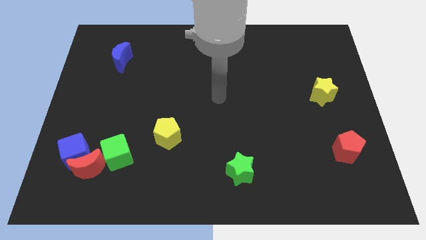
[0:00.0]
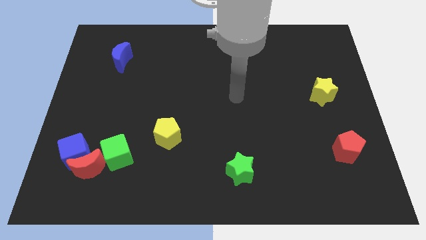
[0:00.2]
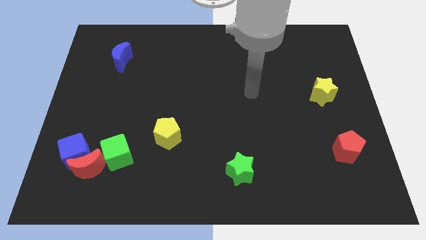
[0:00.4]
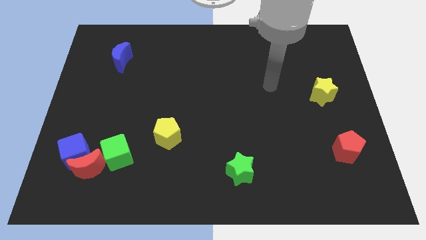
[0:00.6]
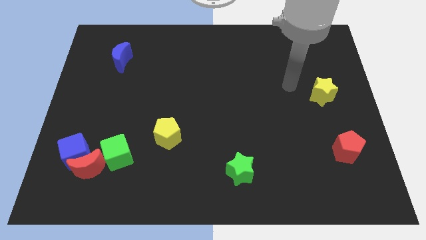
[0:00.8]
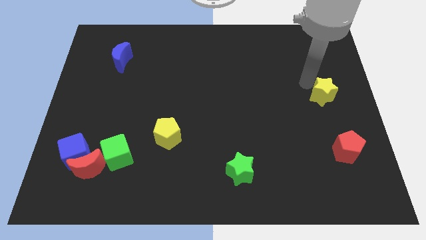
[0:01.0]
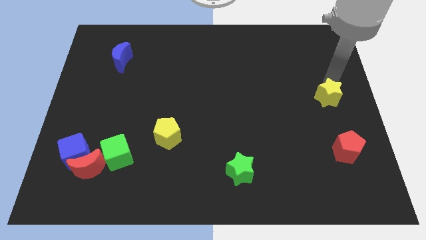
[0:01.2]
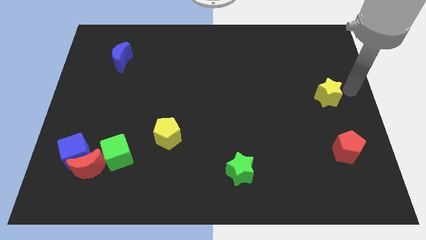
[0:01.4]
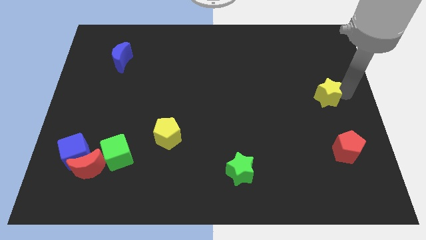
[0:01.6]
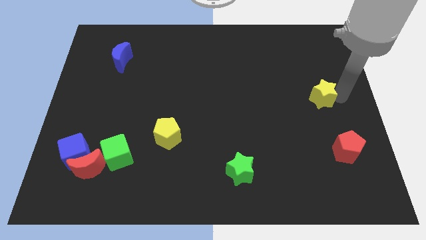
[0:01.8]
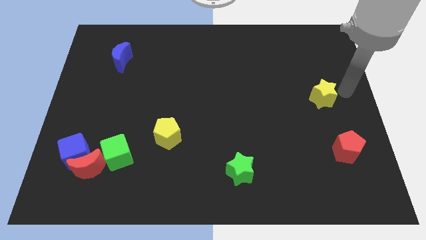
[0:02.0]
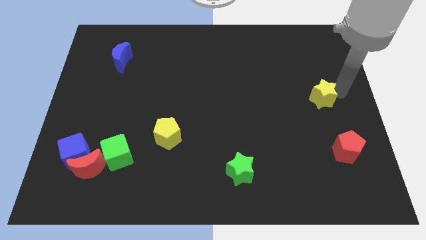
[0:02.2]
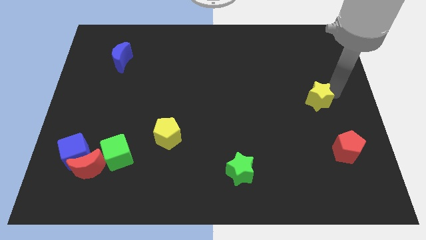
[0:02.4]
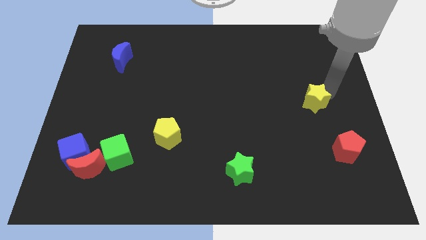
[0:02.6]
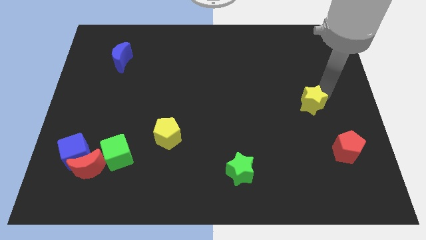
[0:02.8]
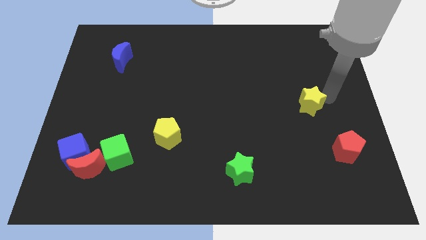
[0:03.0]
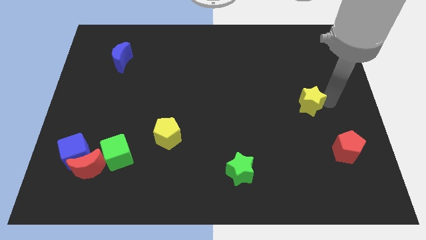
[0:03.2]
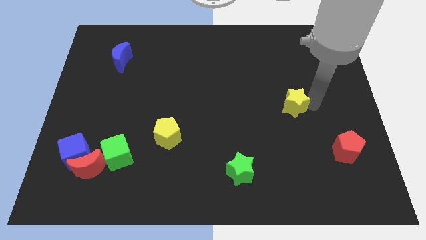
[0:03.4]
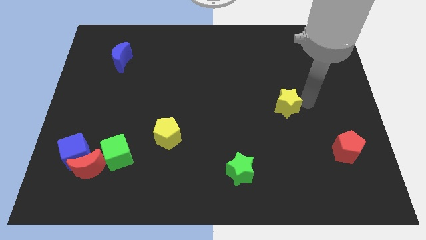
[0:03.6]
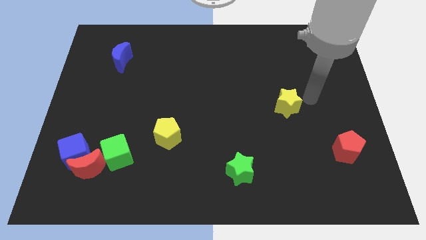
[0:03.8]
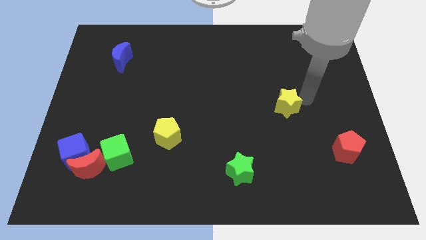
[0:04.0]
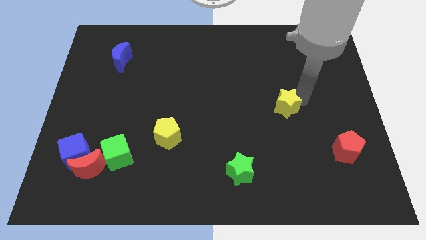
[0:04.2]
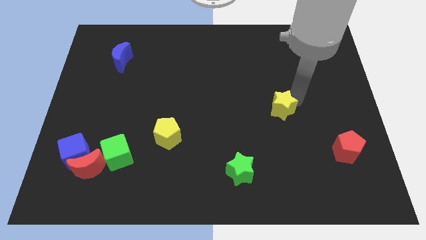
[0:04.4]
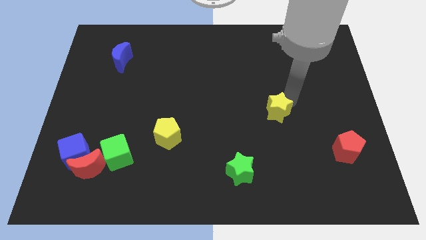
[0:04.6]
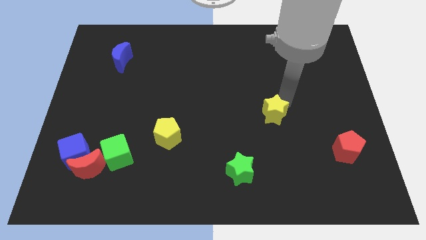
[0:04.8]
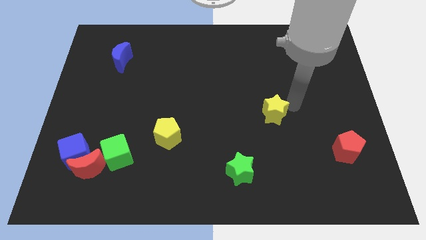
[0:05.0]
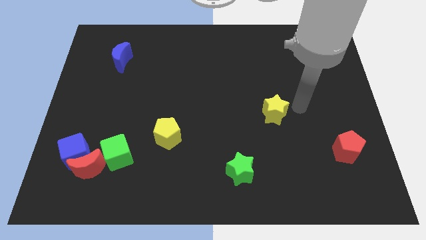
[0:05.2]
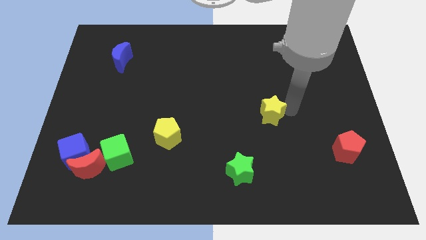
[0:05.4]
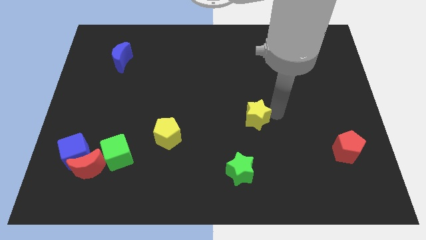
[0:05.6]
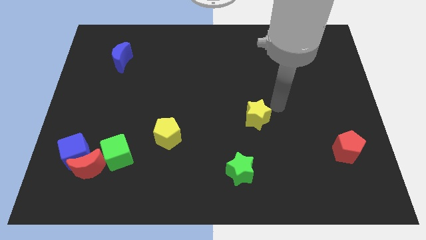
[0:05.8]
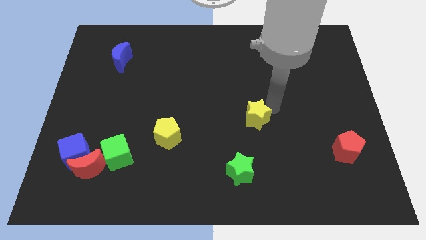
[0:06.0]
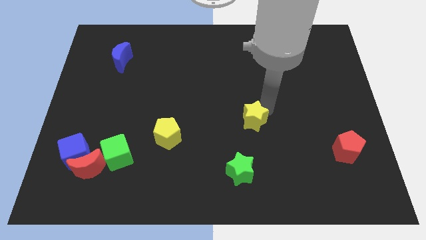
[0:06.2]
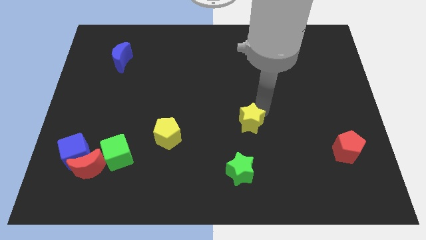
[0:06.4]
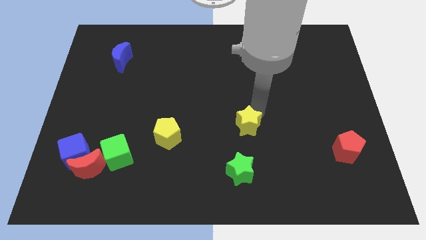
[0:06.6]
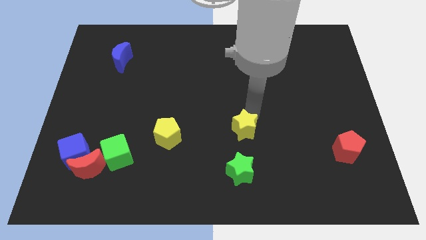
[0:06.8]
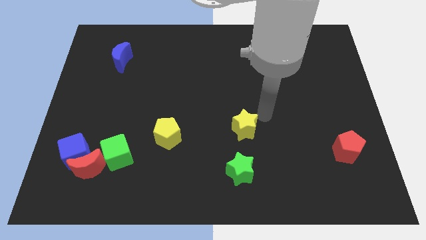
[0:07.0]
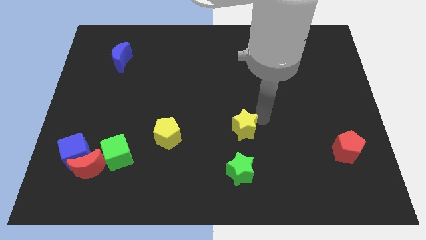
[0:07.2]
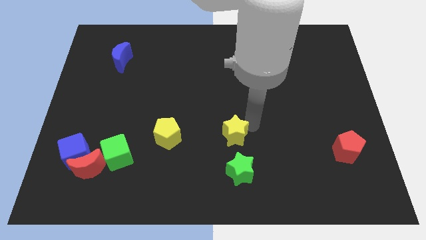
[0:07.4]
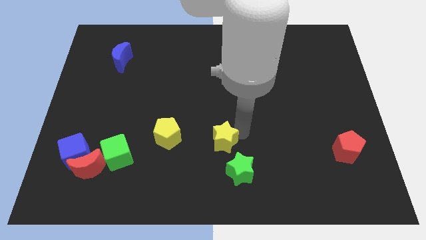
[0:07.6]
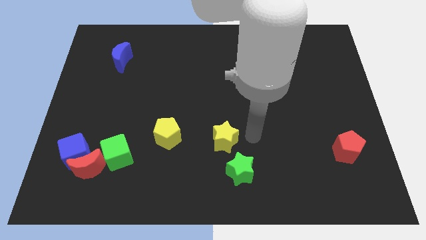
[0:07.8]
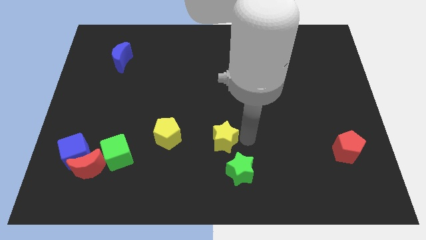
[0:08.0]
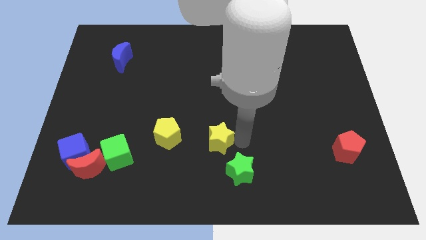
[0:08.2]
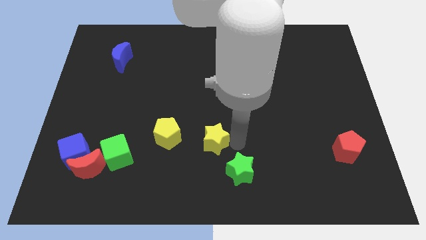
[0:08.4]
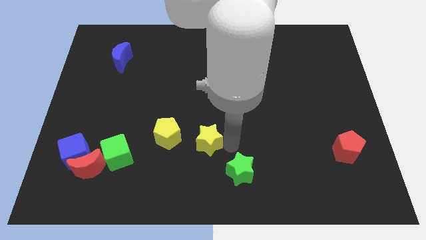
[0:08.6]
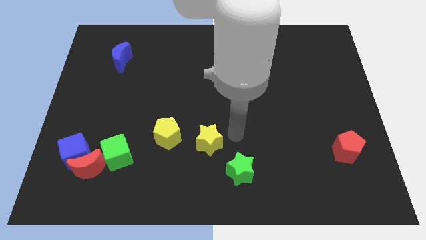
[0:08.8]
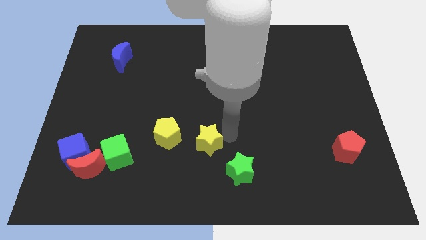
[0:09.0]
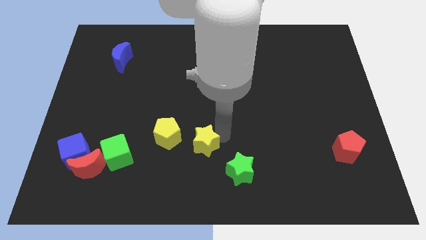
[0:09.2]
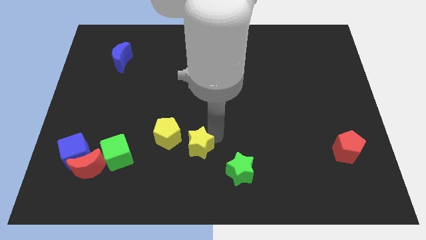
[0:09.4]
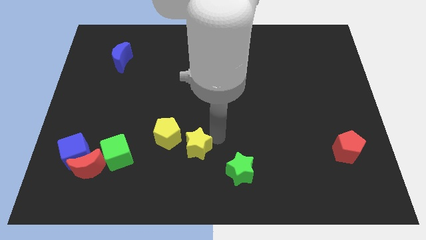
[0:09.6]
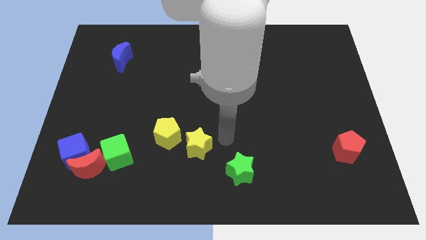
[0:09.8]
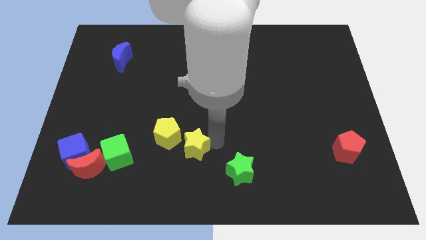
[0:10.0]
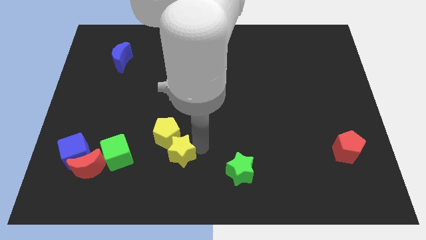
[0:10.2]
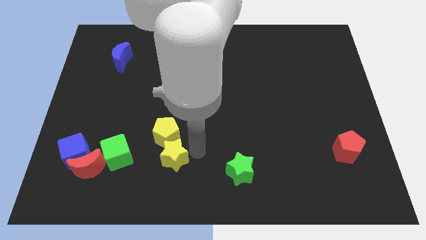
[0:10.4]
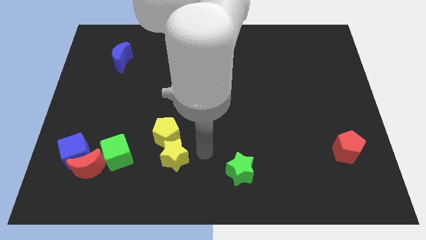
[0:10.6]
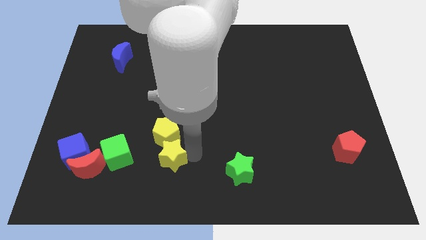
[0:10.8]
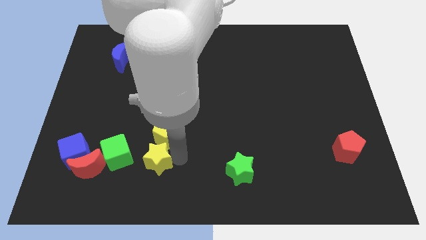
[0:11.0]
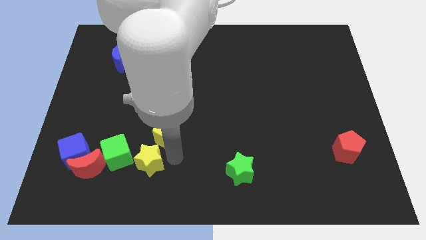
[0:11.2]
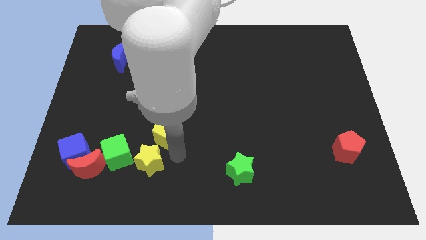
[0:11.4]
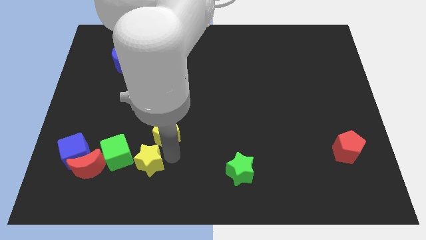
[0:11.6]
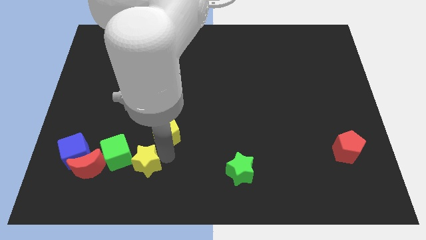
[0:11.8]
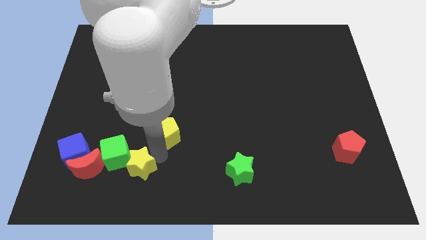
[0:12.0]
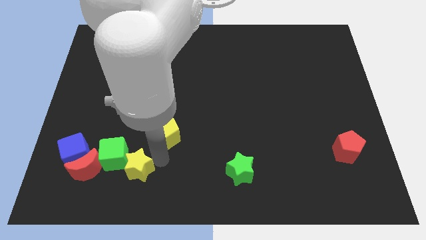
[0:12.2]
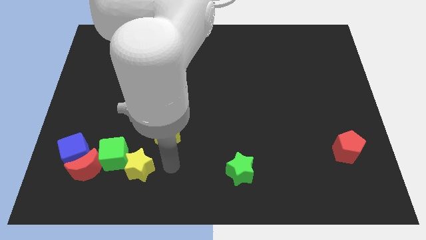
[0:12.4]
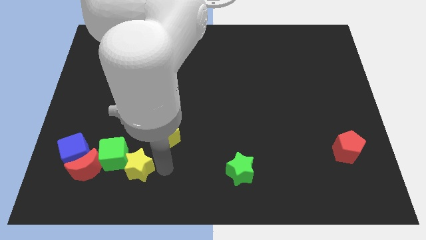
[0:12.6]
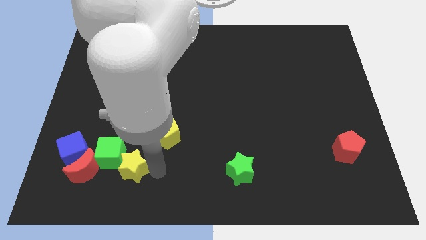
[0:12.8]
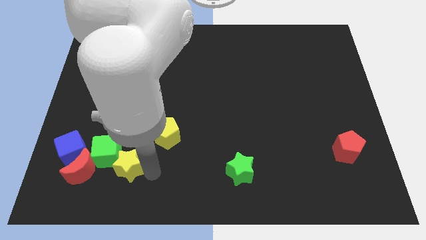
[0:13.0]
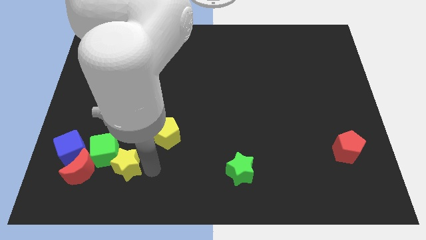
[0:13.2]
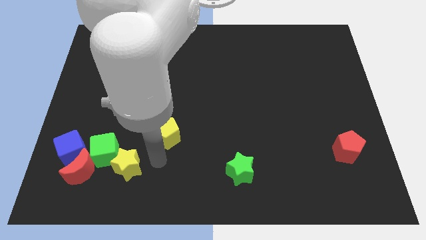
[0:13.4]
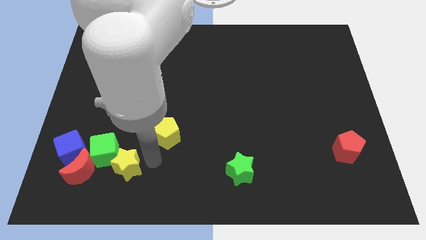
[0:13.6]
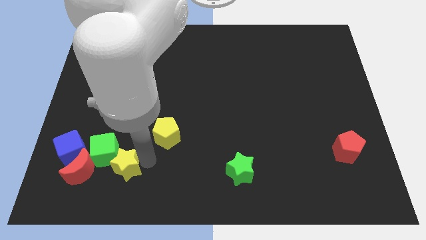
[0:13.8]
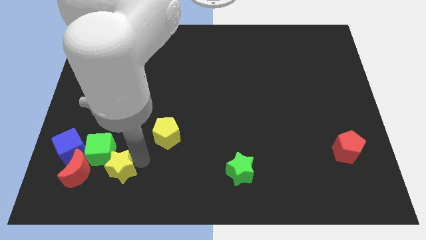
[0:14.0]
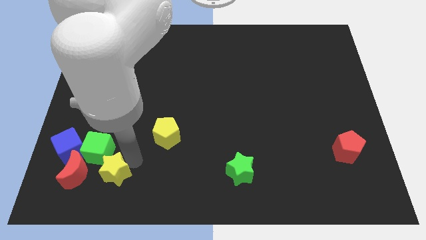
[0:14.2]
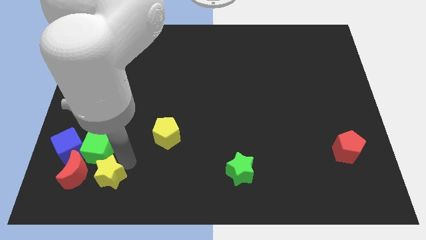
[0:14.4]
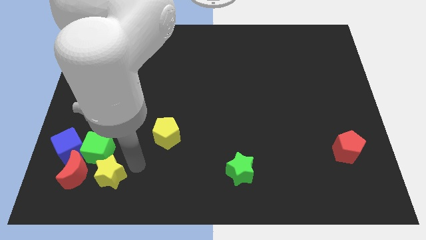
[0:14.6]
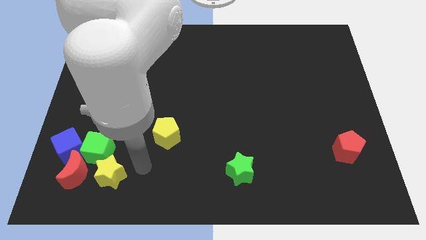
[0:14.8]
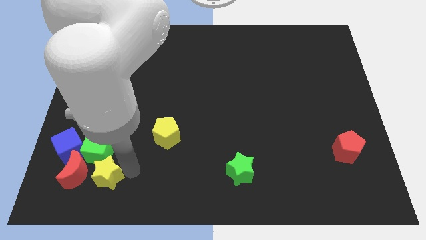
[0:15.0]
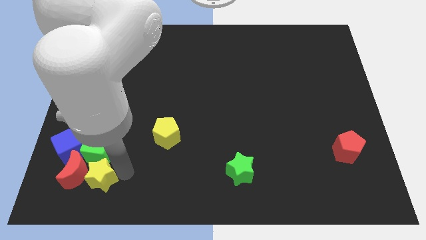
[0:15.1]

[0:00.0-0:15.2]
slide the yellow star close to the red moon
